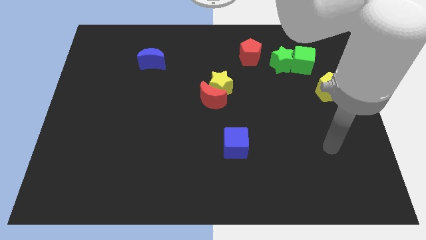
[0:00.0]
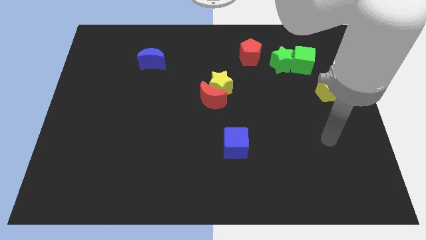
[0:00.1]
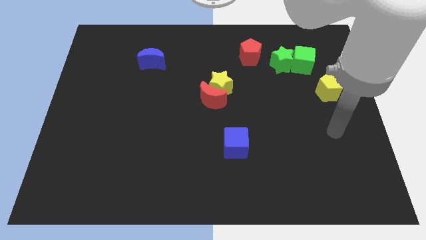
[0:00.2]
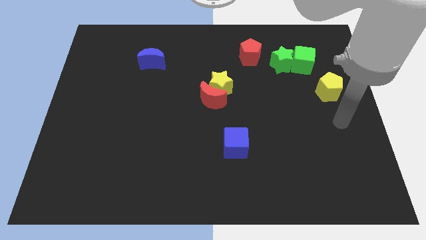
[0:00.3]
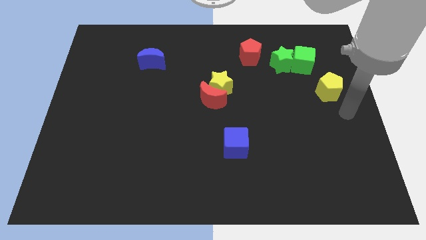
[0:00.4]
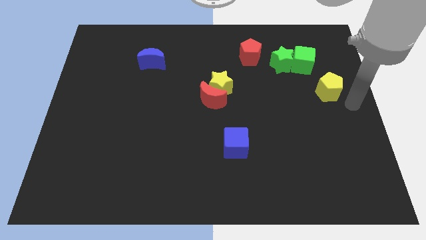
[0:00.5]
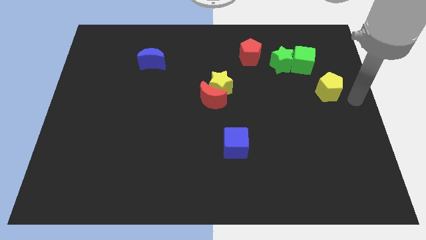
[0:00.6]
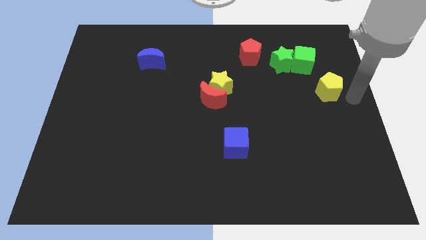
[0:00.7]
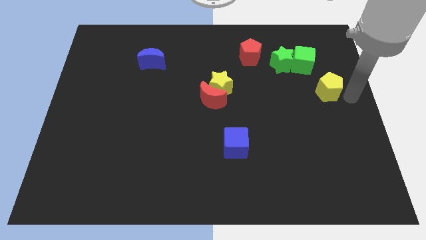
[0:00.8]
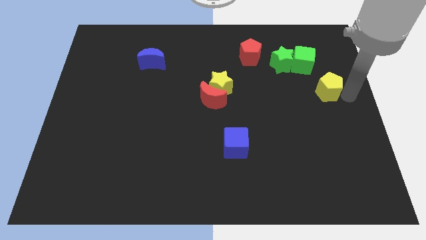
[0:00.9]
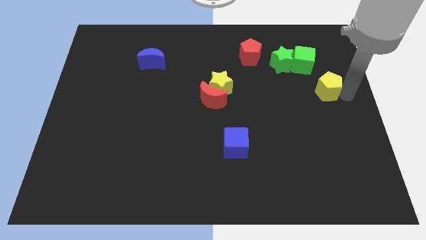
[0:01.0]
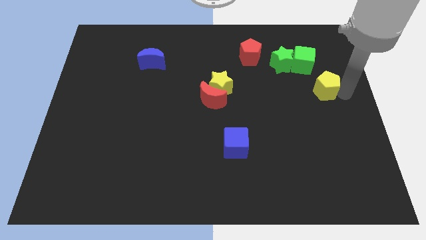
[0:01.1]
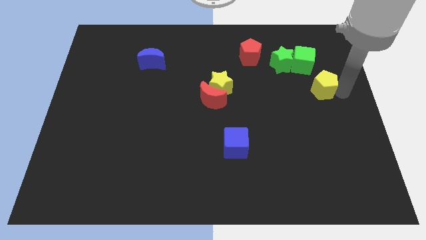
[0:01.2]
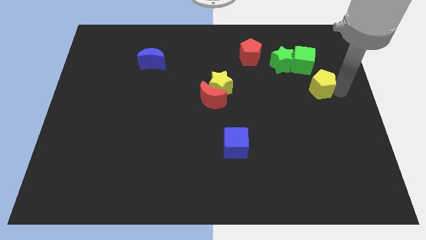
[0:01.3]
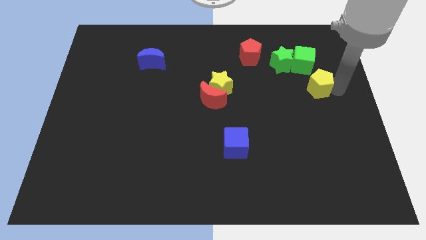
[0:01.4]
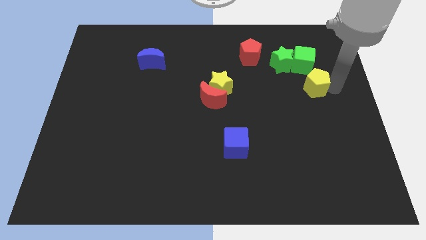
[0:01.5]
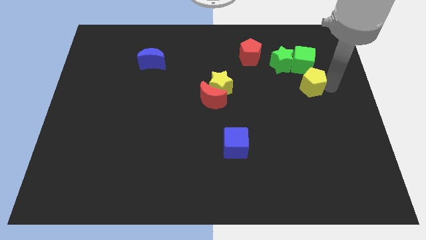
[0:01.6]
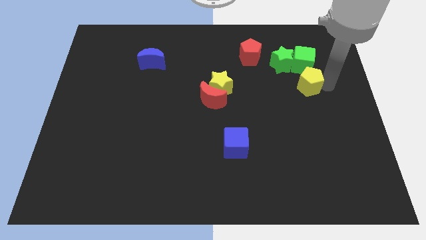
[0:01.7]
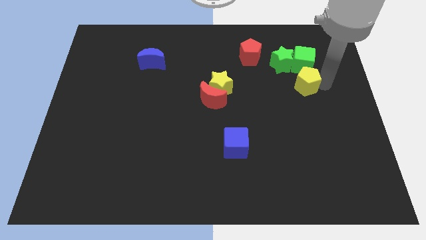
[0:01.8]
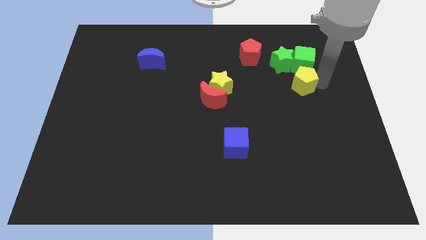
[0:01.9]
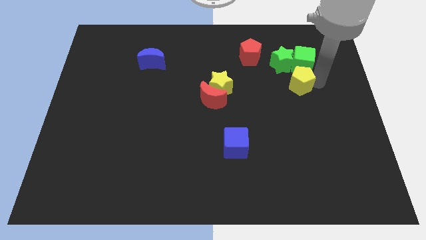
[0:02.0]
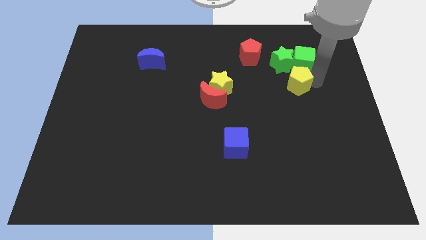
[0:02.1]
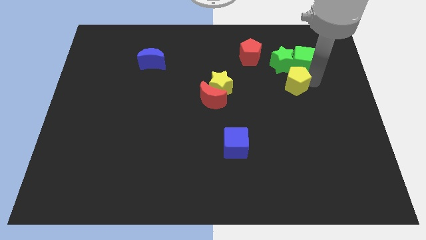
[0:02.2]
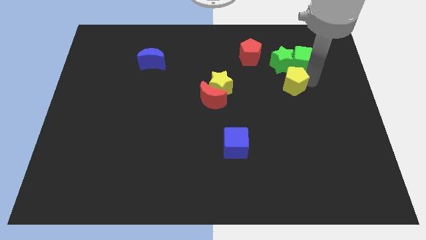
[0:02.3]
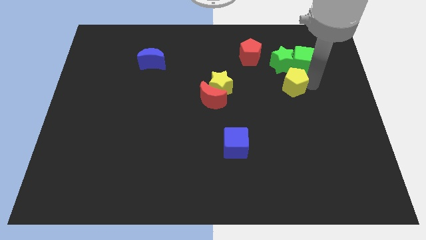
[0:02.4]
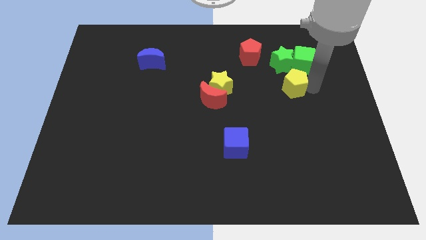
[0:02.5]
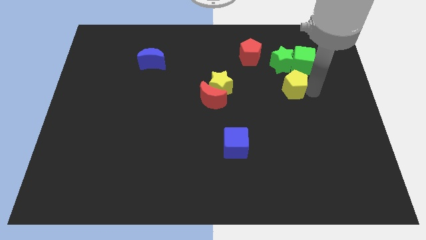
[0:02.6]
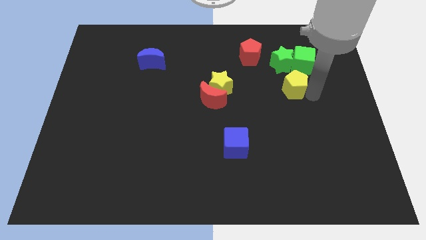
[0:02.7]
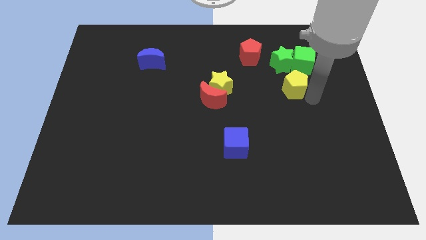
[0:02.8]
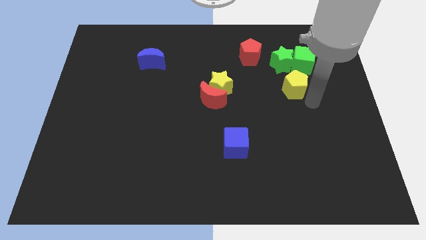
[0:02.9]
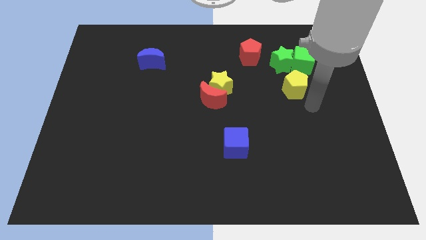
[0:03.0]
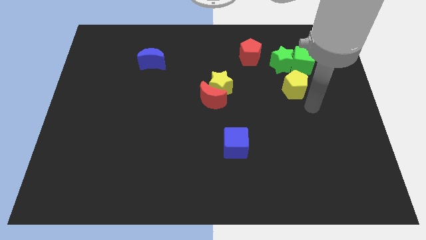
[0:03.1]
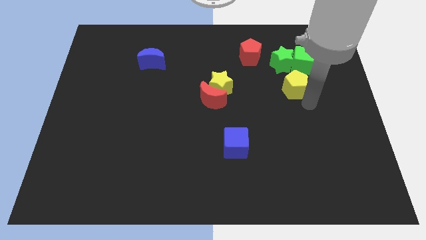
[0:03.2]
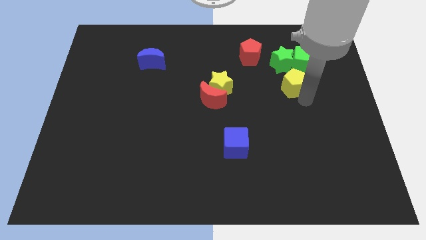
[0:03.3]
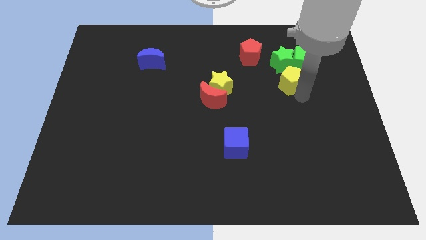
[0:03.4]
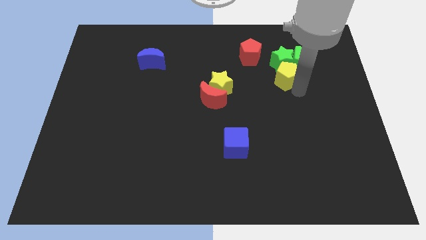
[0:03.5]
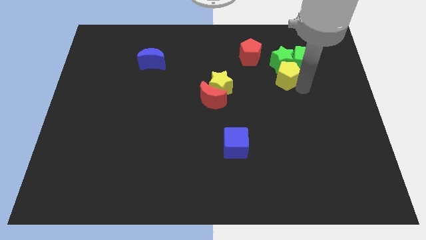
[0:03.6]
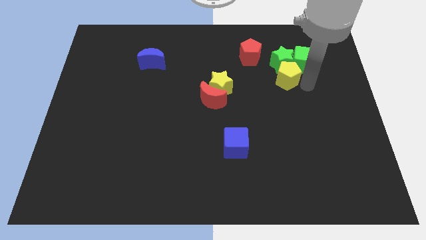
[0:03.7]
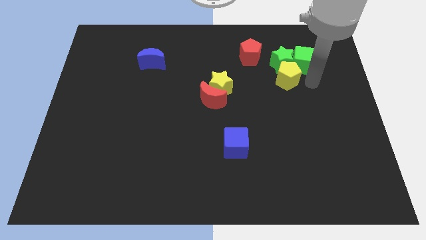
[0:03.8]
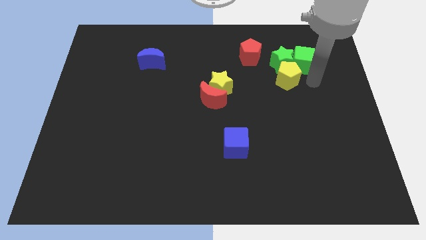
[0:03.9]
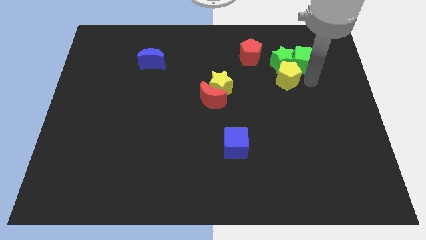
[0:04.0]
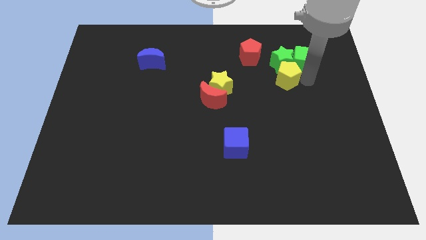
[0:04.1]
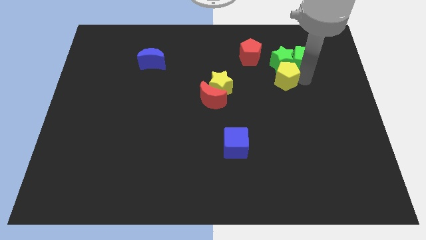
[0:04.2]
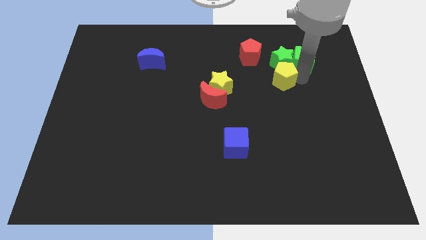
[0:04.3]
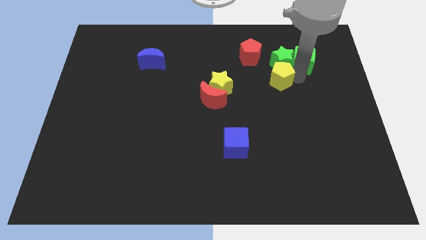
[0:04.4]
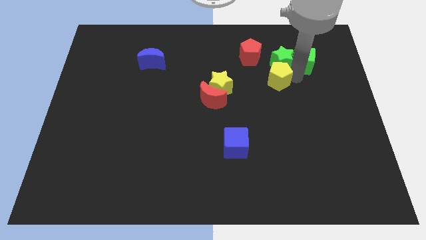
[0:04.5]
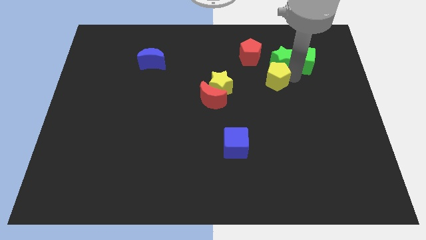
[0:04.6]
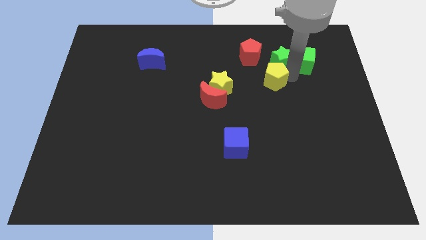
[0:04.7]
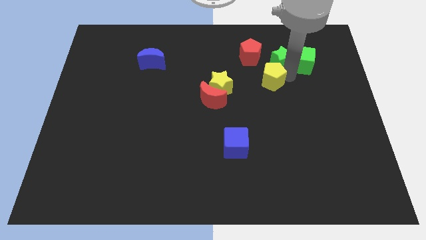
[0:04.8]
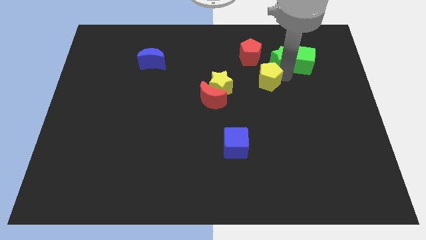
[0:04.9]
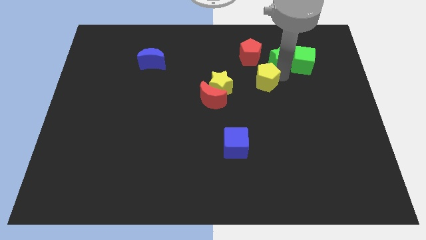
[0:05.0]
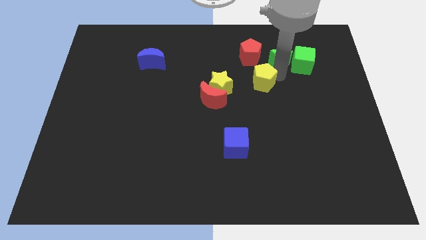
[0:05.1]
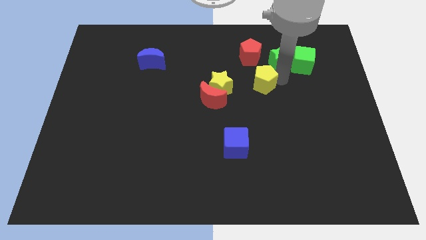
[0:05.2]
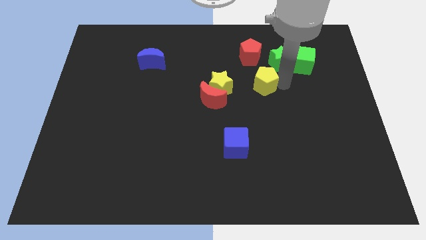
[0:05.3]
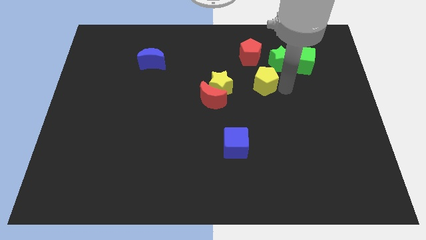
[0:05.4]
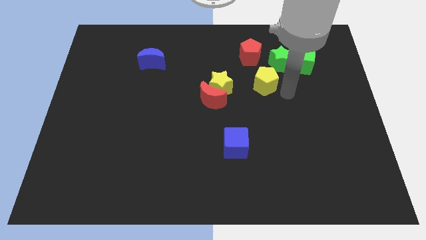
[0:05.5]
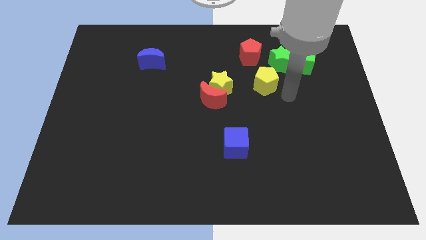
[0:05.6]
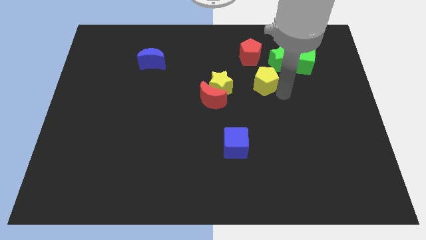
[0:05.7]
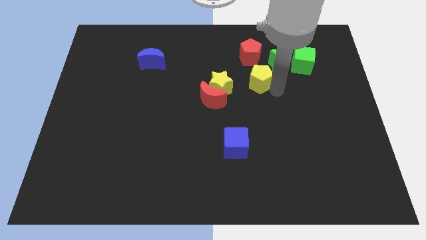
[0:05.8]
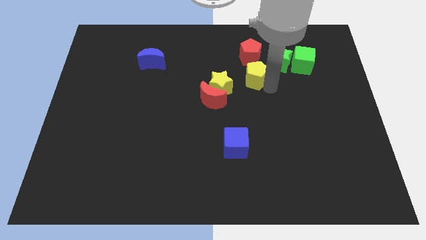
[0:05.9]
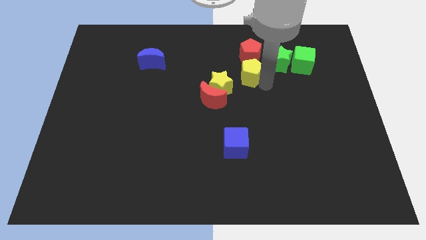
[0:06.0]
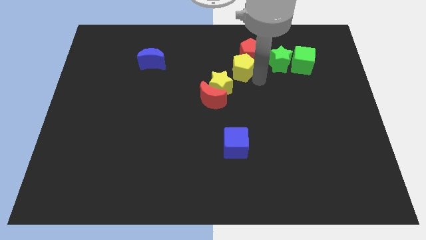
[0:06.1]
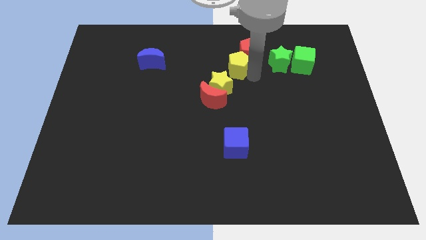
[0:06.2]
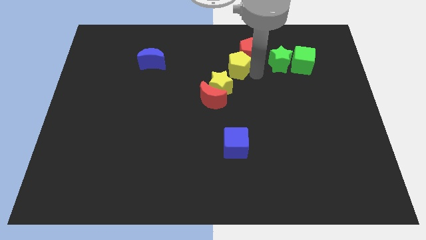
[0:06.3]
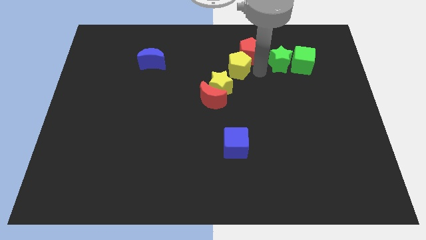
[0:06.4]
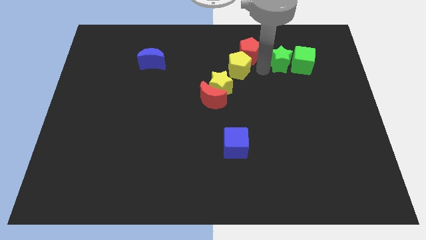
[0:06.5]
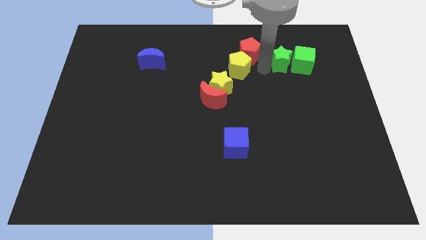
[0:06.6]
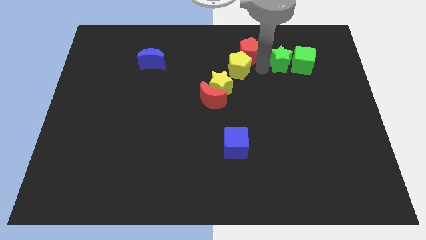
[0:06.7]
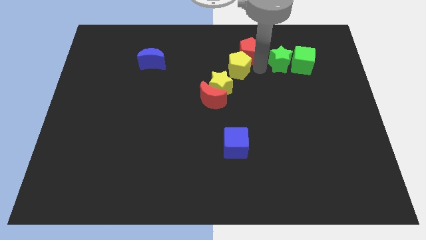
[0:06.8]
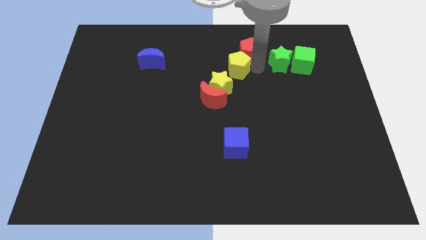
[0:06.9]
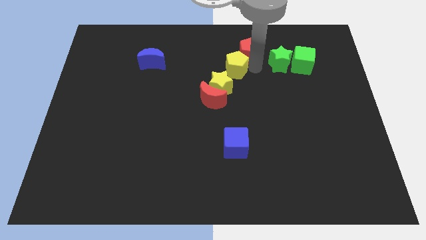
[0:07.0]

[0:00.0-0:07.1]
move the yellow pentagon left

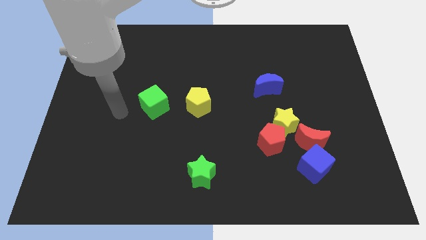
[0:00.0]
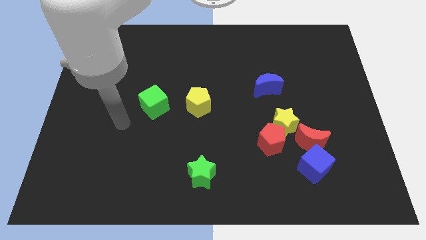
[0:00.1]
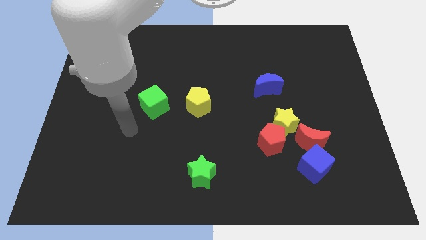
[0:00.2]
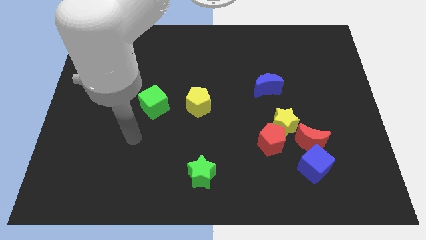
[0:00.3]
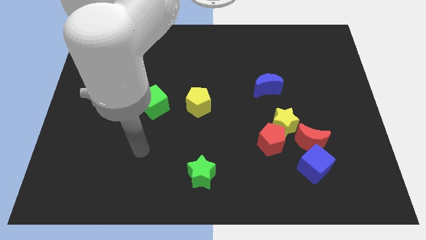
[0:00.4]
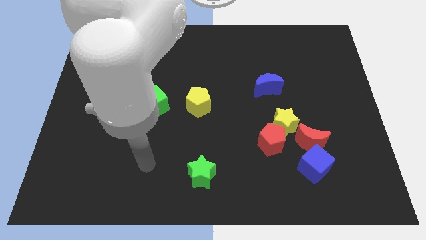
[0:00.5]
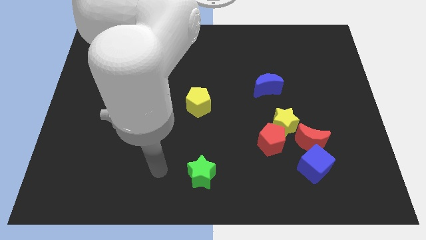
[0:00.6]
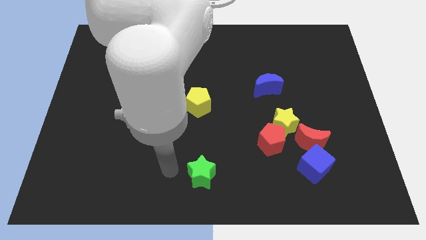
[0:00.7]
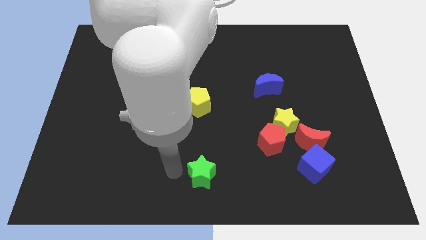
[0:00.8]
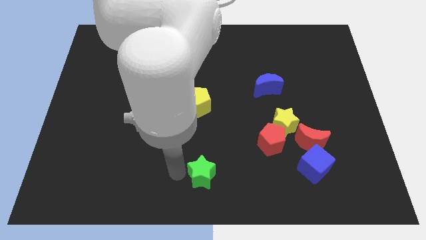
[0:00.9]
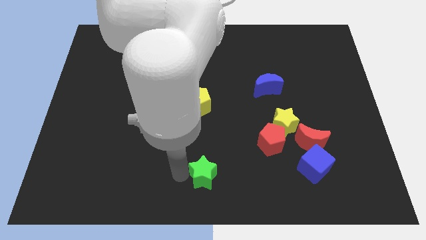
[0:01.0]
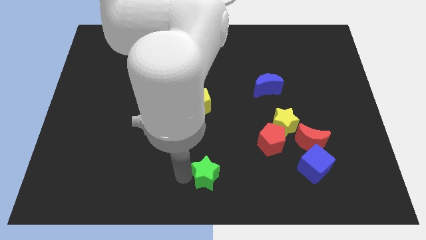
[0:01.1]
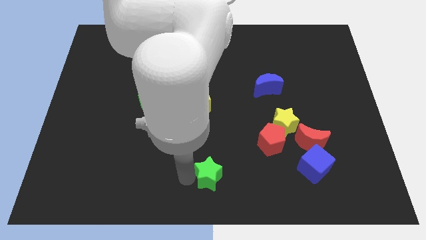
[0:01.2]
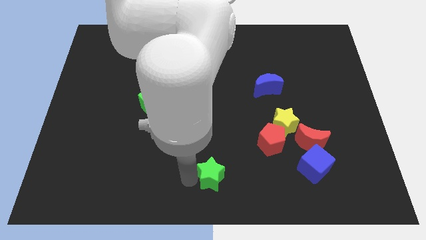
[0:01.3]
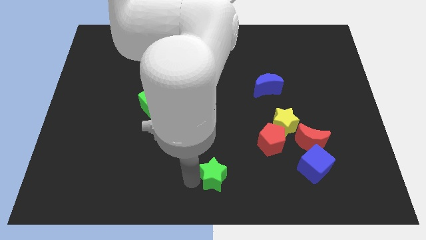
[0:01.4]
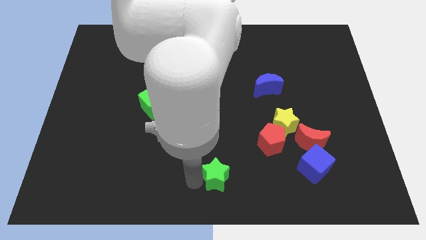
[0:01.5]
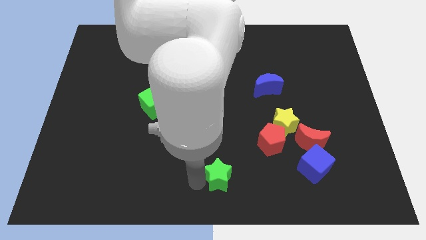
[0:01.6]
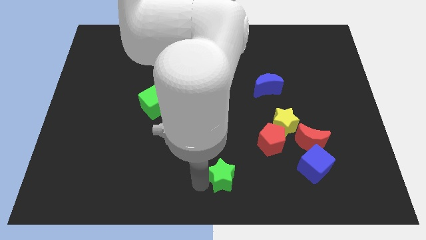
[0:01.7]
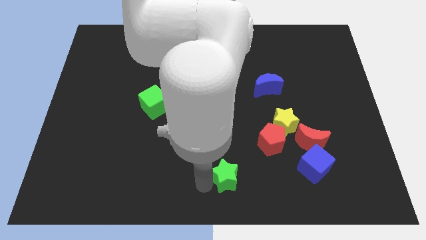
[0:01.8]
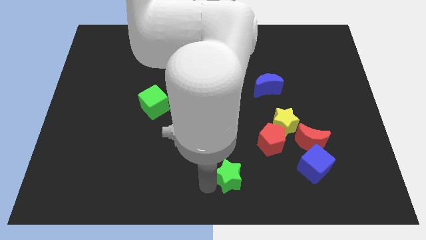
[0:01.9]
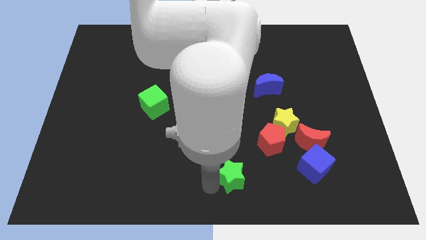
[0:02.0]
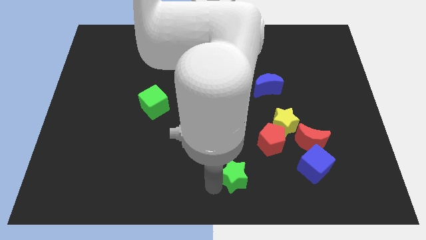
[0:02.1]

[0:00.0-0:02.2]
move the green star to the right slightly
